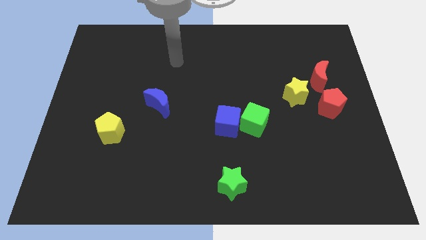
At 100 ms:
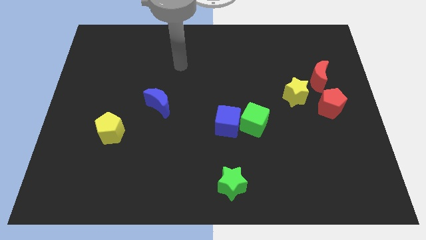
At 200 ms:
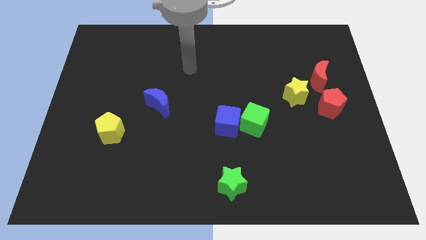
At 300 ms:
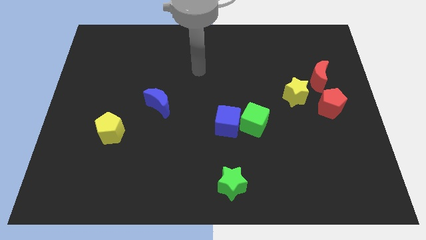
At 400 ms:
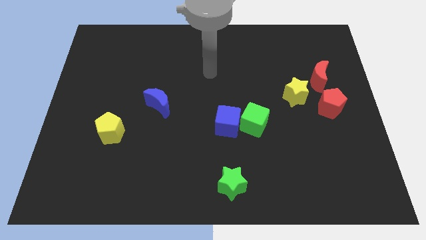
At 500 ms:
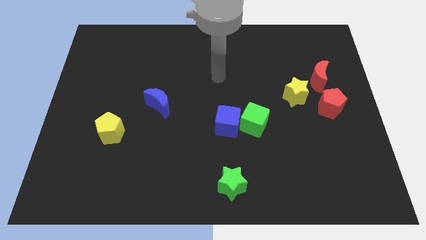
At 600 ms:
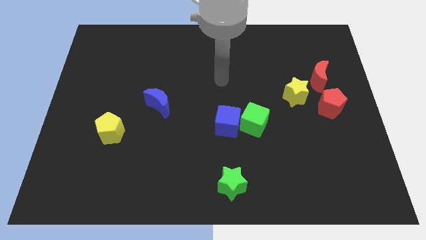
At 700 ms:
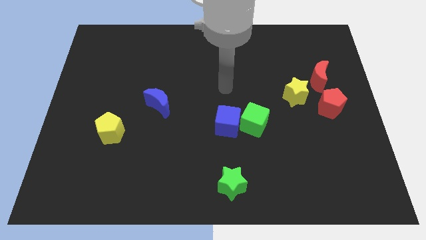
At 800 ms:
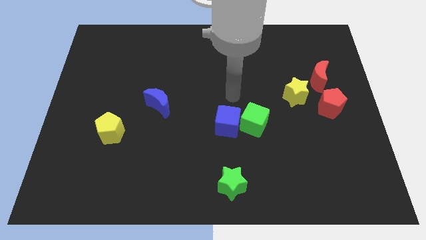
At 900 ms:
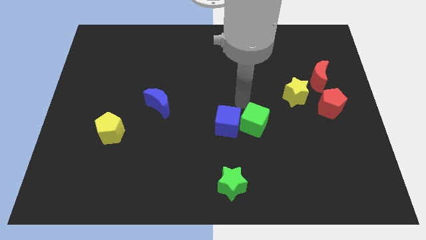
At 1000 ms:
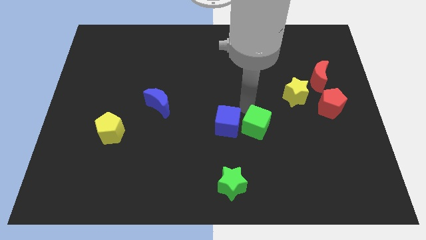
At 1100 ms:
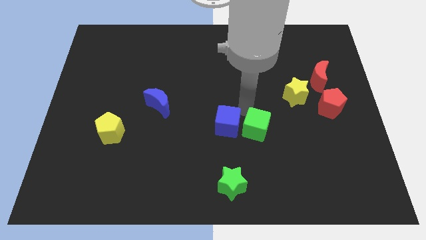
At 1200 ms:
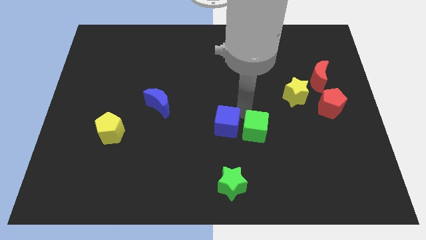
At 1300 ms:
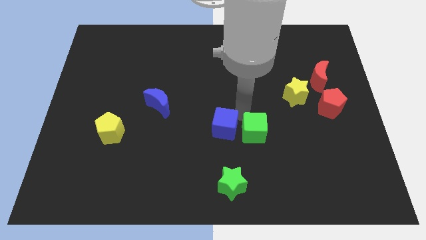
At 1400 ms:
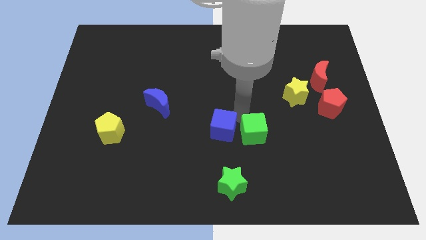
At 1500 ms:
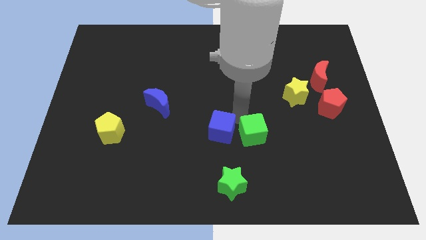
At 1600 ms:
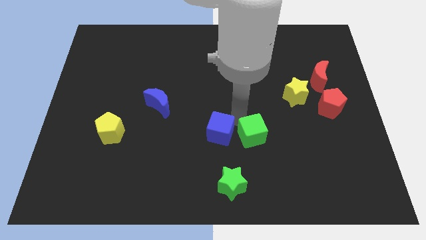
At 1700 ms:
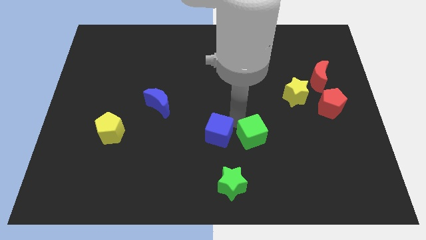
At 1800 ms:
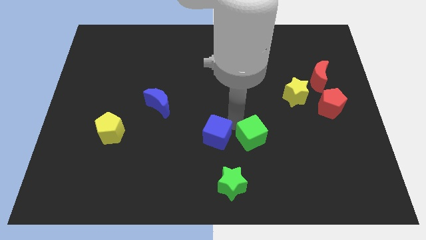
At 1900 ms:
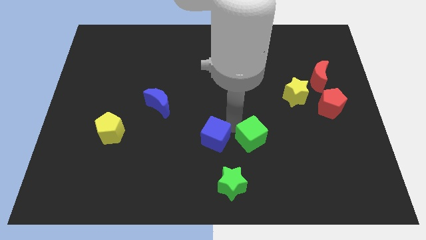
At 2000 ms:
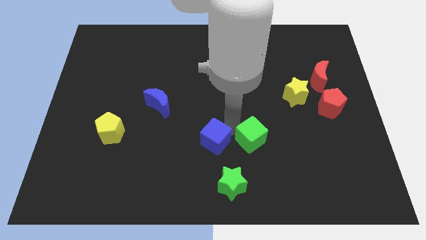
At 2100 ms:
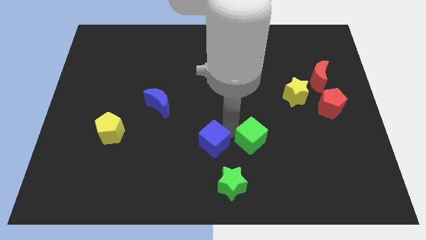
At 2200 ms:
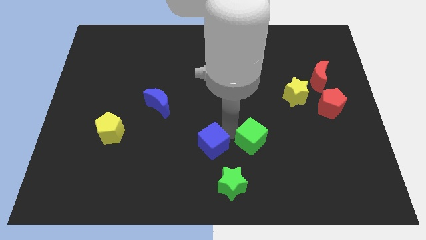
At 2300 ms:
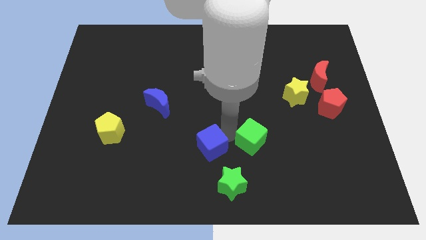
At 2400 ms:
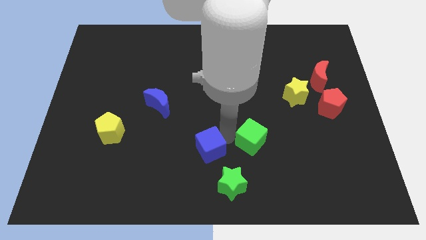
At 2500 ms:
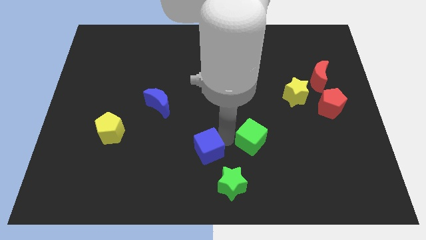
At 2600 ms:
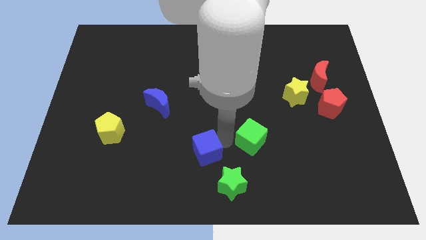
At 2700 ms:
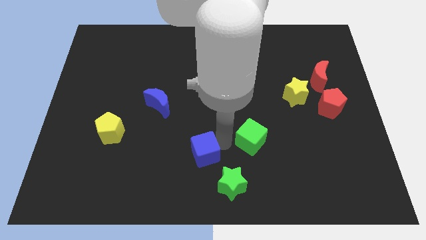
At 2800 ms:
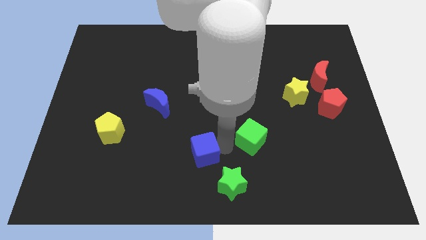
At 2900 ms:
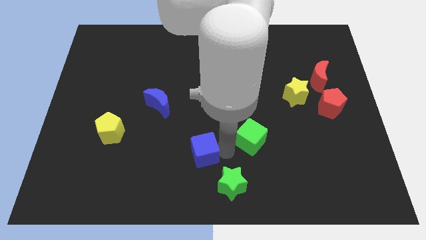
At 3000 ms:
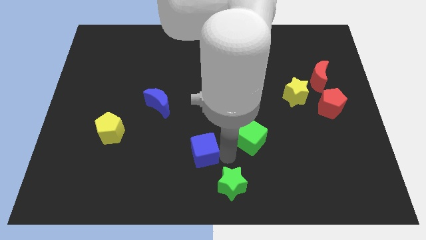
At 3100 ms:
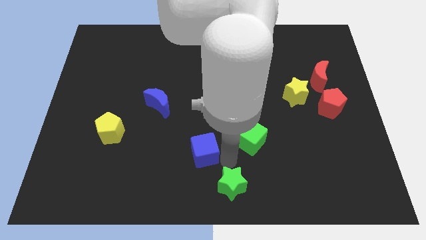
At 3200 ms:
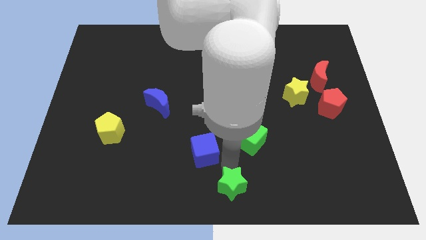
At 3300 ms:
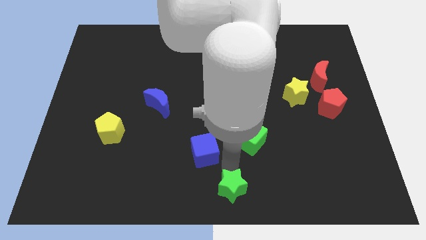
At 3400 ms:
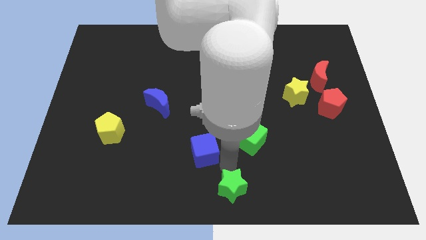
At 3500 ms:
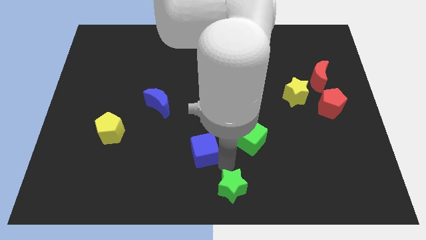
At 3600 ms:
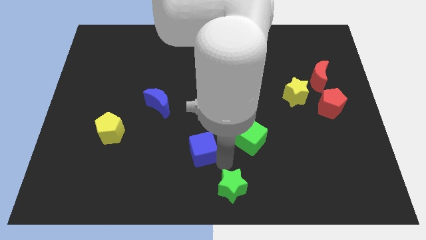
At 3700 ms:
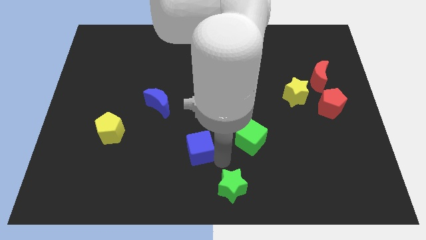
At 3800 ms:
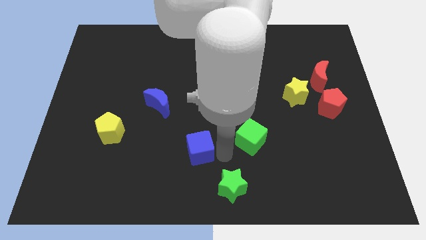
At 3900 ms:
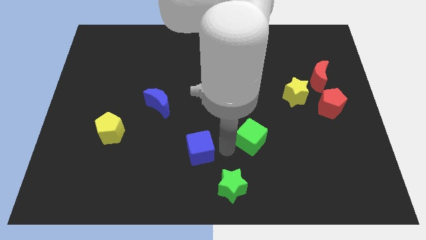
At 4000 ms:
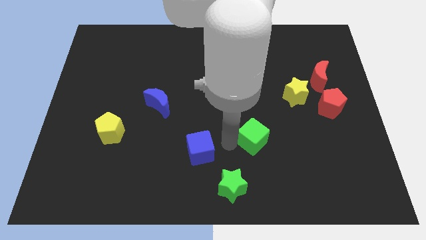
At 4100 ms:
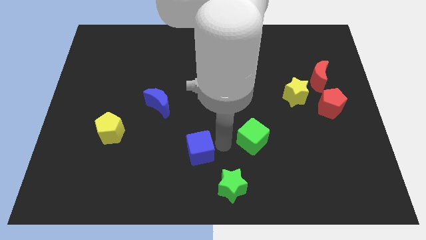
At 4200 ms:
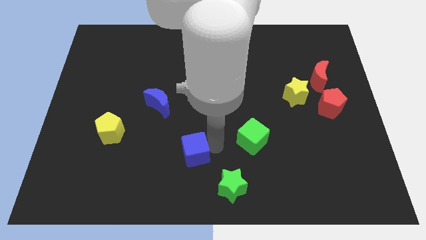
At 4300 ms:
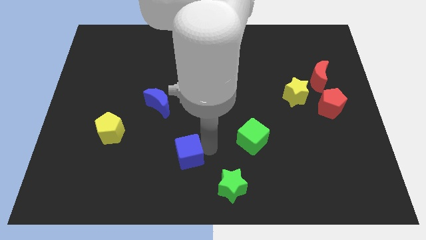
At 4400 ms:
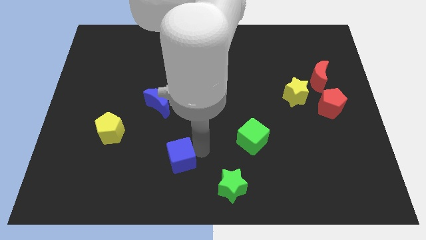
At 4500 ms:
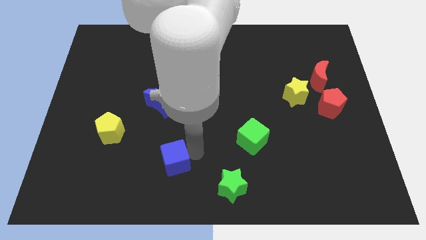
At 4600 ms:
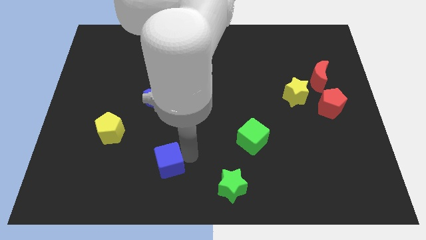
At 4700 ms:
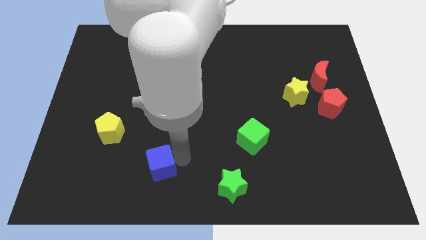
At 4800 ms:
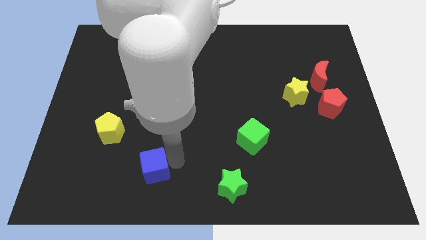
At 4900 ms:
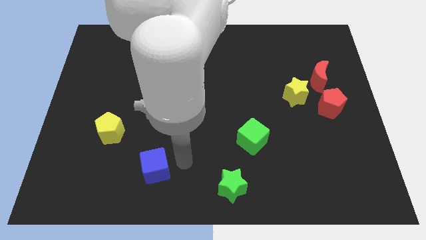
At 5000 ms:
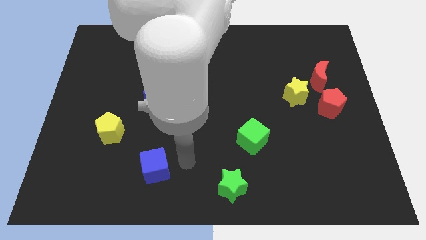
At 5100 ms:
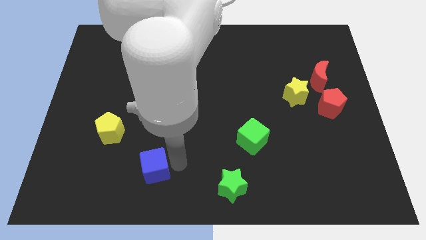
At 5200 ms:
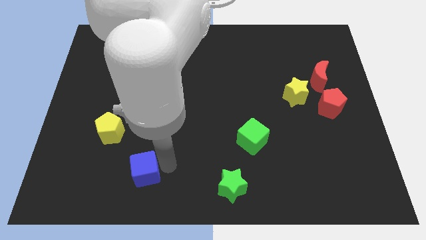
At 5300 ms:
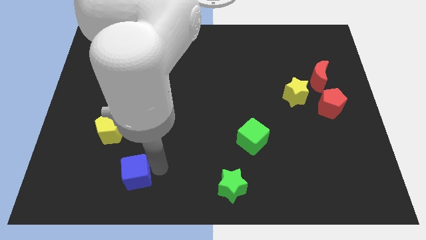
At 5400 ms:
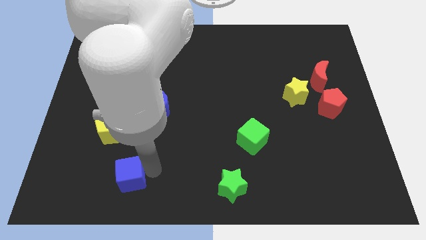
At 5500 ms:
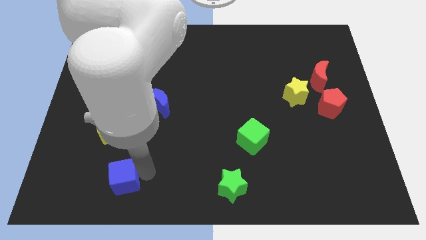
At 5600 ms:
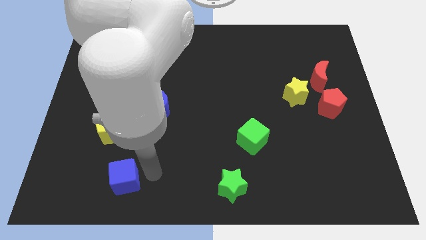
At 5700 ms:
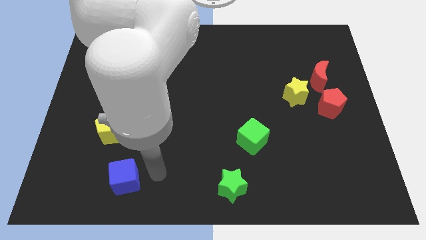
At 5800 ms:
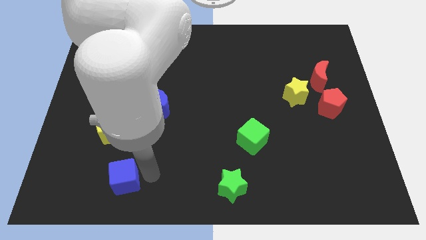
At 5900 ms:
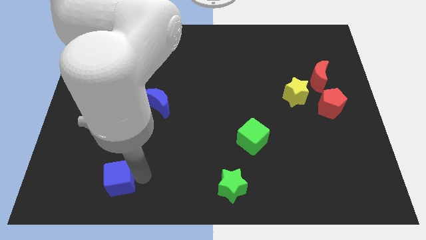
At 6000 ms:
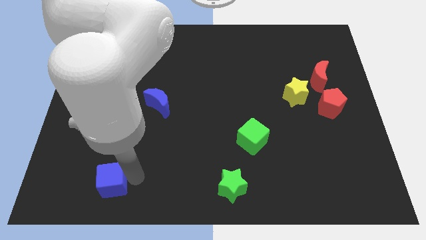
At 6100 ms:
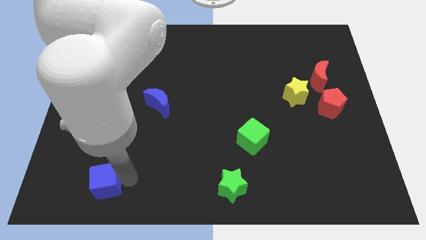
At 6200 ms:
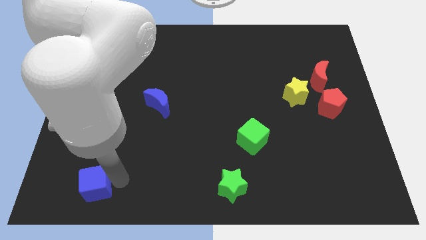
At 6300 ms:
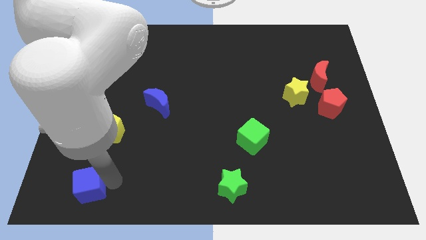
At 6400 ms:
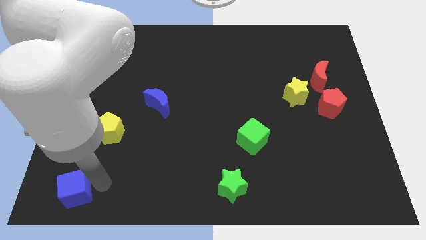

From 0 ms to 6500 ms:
put the blue cube to the bottom left of the board

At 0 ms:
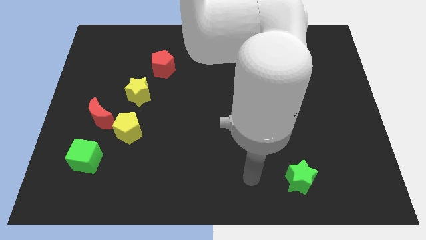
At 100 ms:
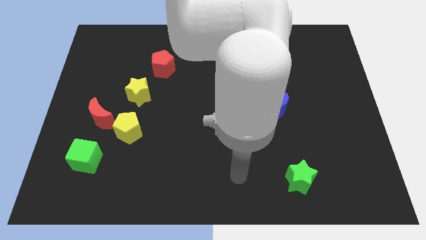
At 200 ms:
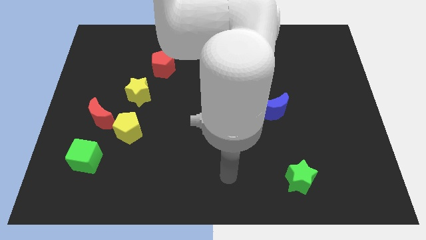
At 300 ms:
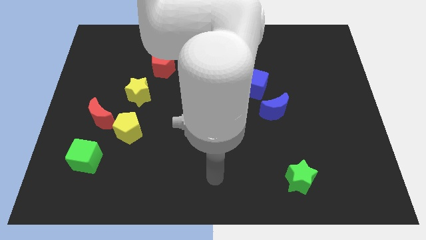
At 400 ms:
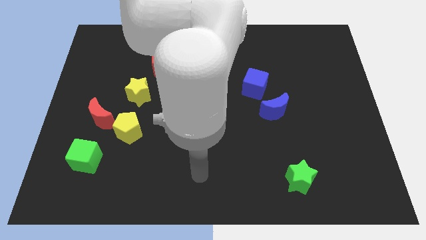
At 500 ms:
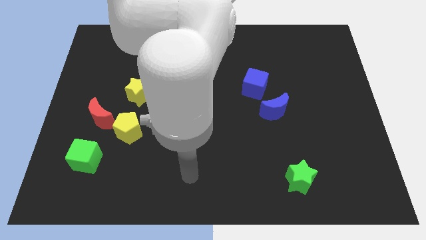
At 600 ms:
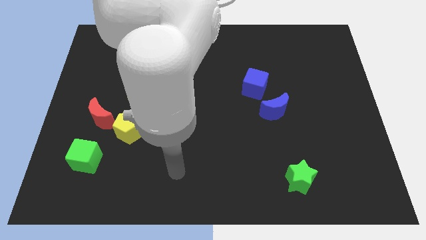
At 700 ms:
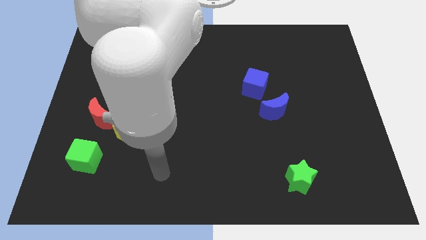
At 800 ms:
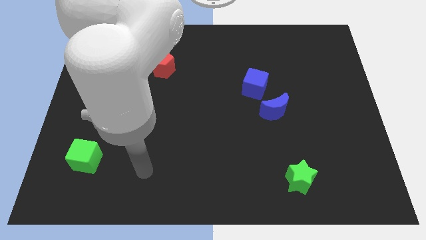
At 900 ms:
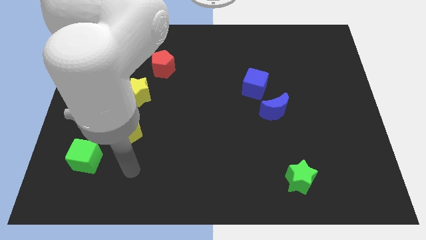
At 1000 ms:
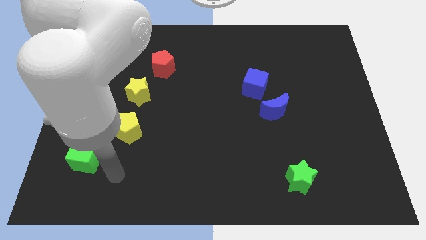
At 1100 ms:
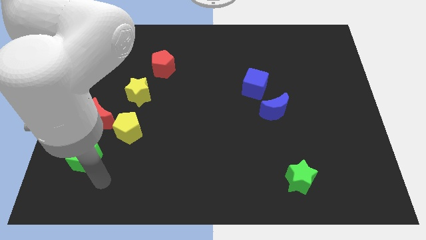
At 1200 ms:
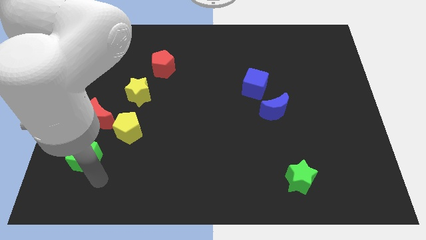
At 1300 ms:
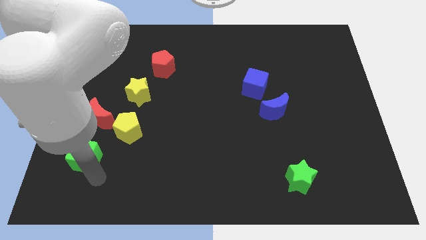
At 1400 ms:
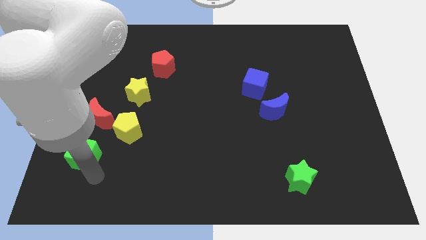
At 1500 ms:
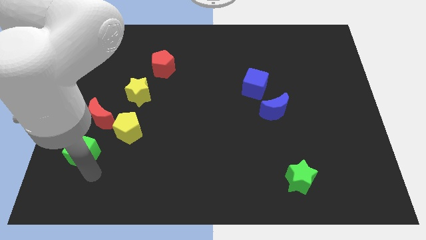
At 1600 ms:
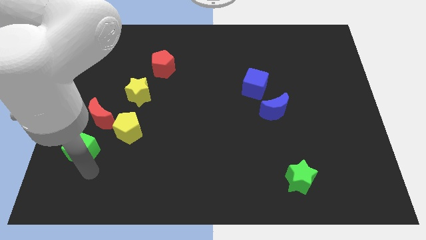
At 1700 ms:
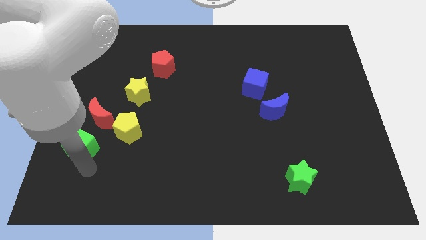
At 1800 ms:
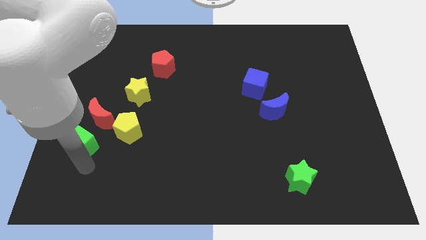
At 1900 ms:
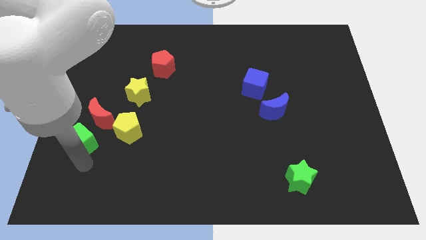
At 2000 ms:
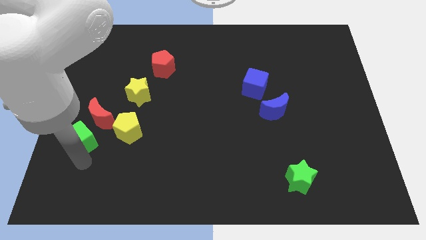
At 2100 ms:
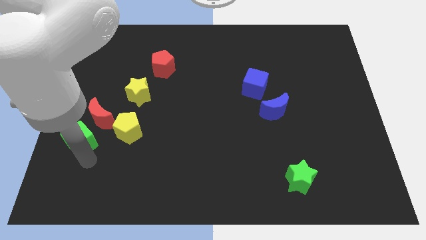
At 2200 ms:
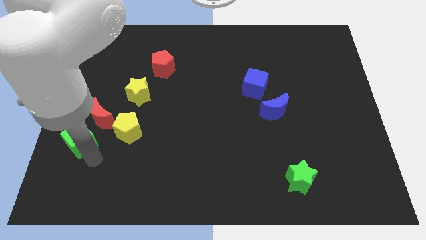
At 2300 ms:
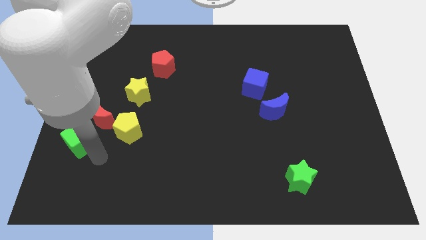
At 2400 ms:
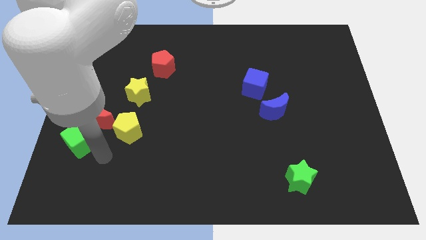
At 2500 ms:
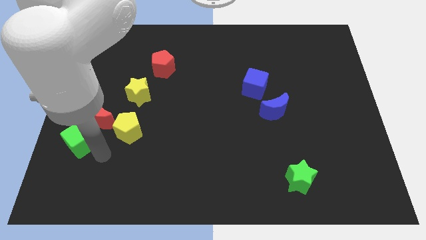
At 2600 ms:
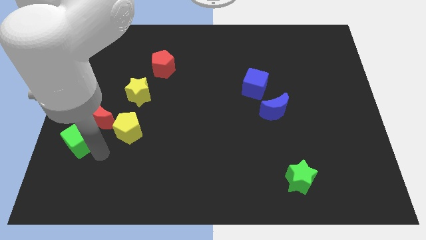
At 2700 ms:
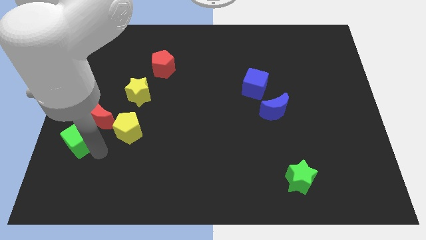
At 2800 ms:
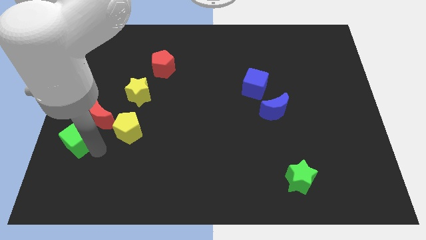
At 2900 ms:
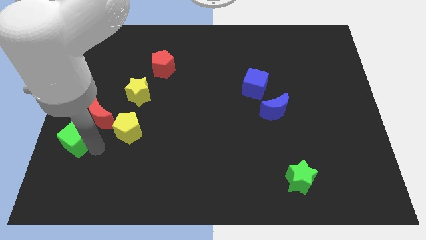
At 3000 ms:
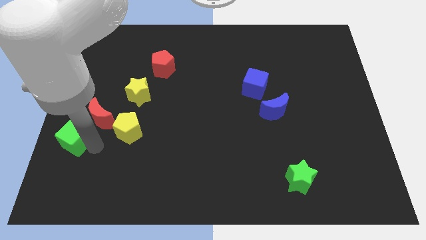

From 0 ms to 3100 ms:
slide the green cube to the center left
